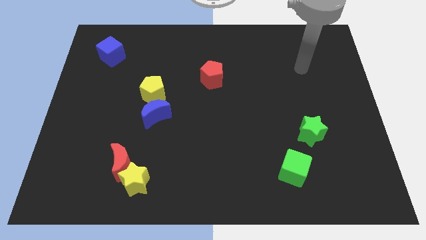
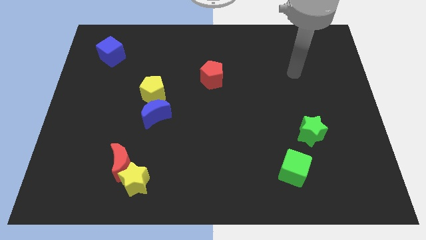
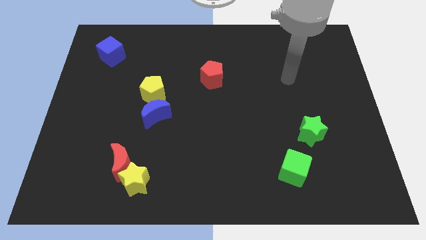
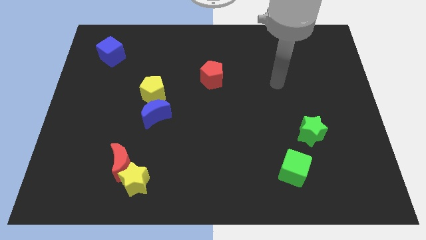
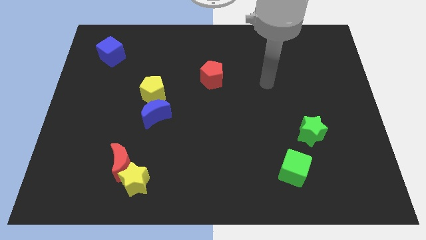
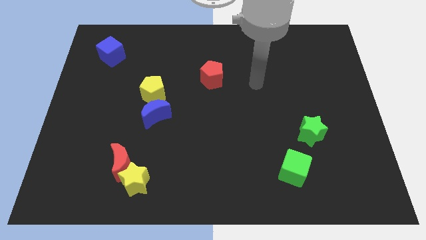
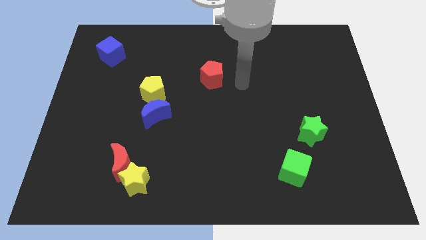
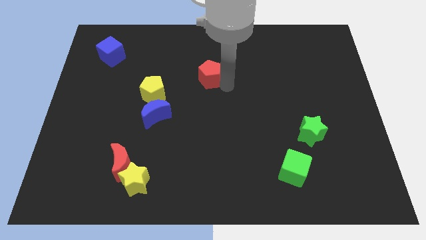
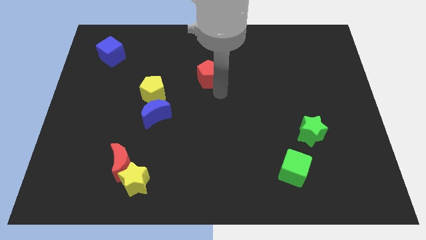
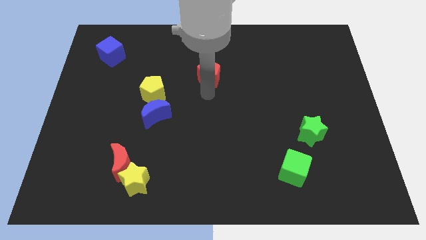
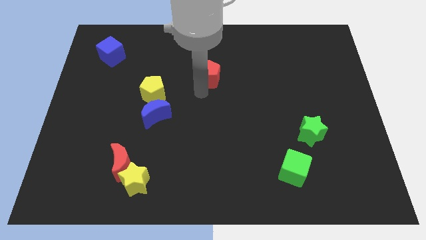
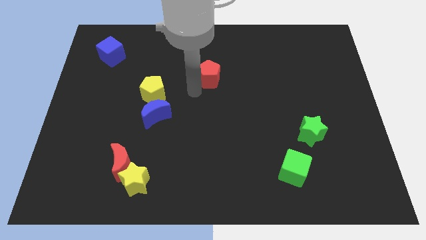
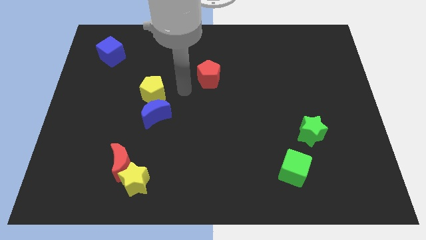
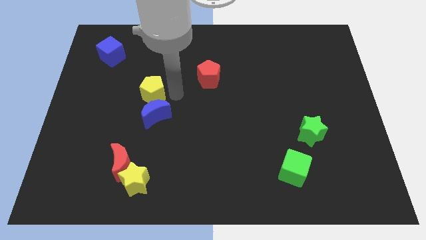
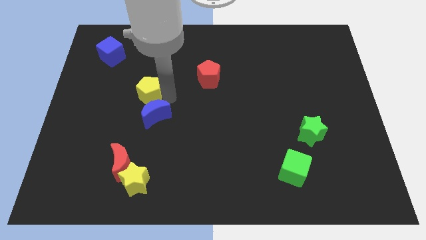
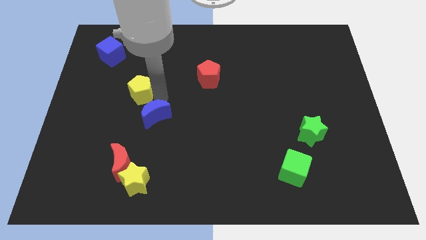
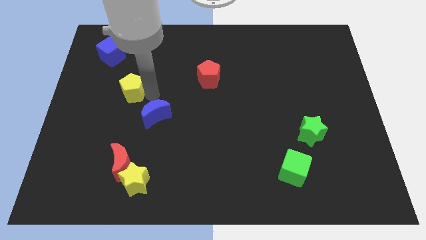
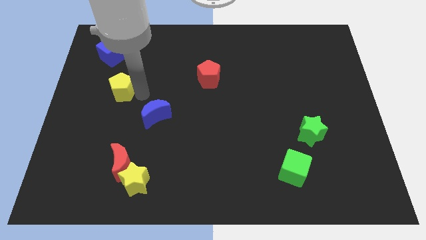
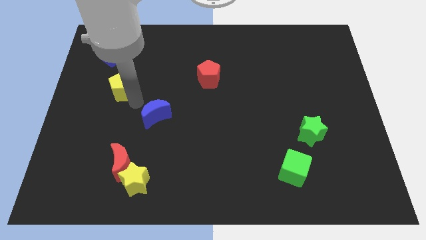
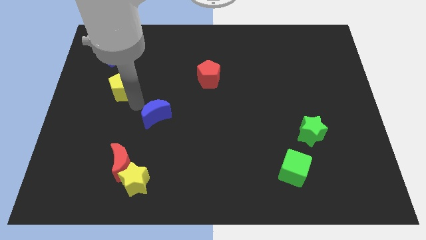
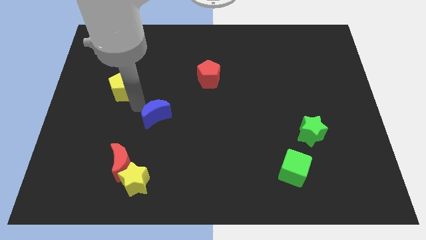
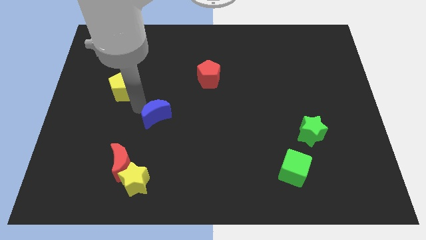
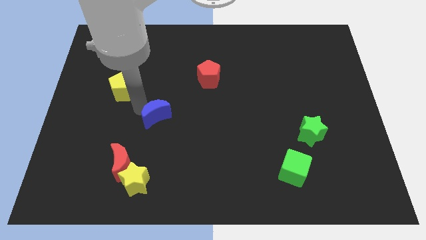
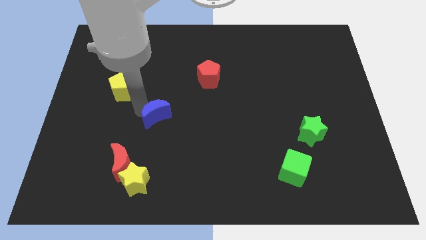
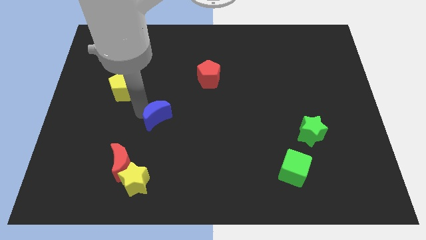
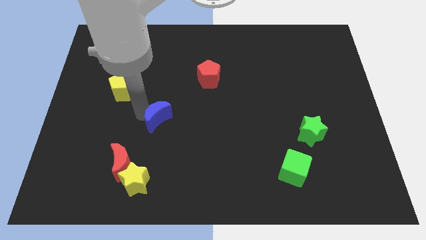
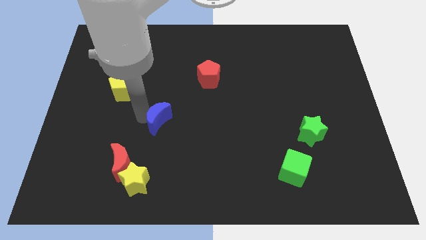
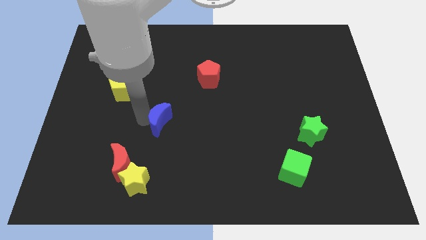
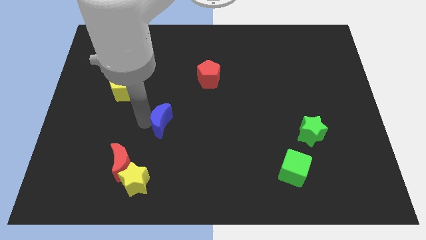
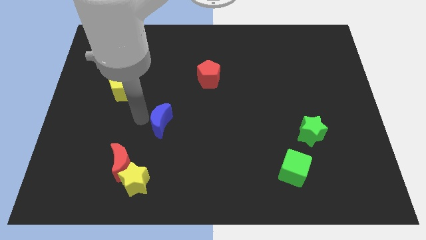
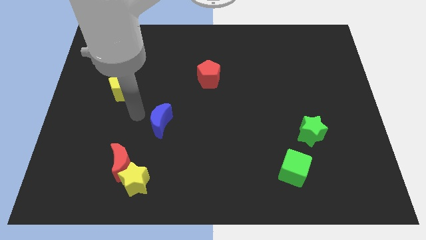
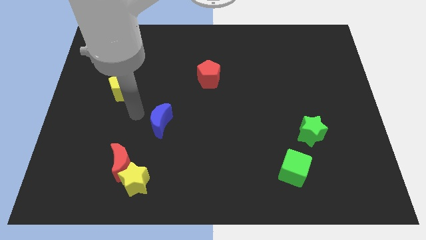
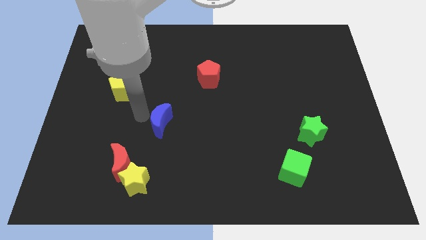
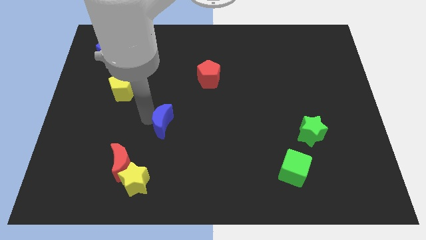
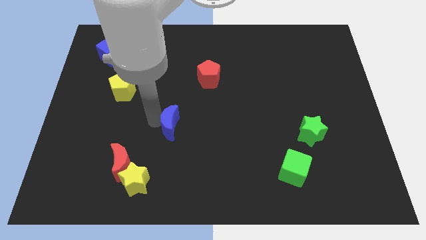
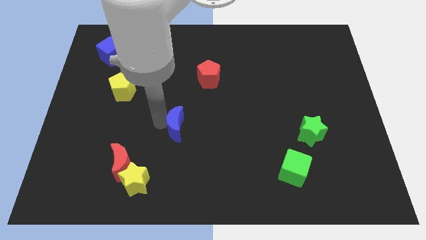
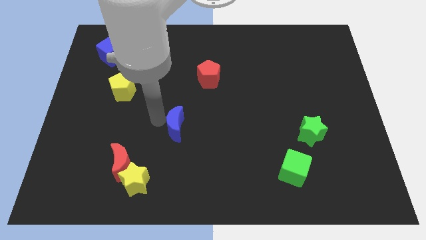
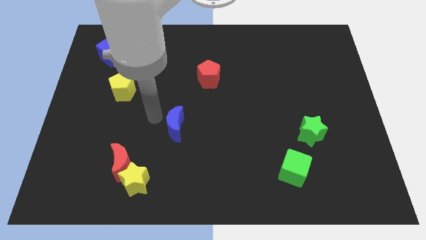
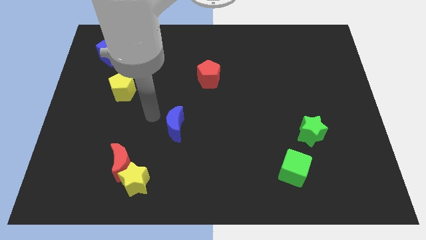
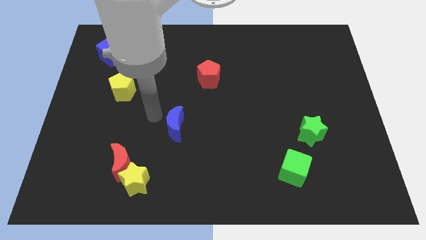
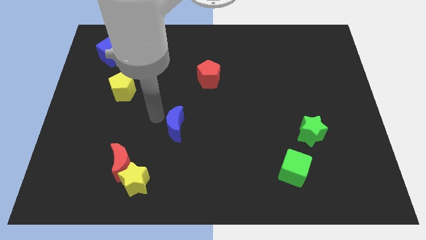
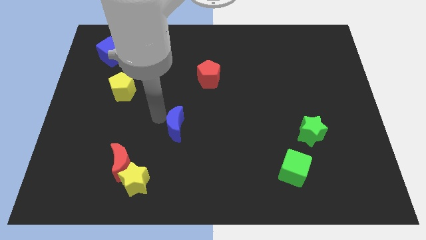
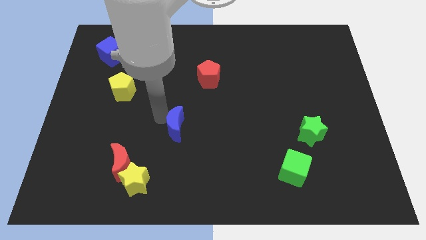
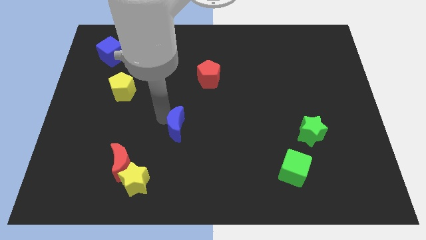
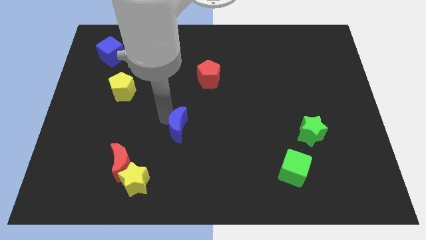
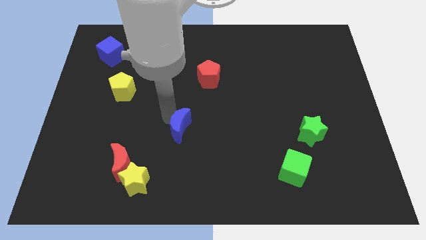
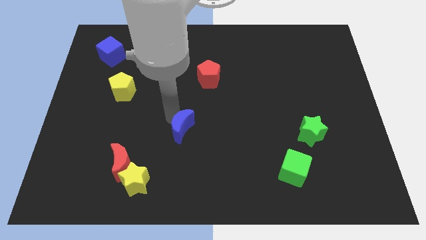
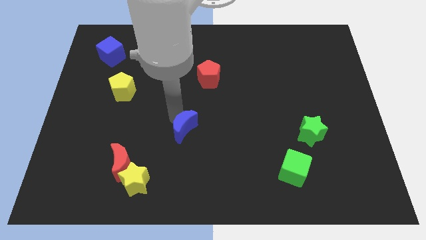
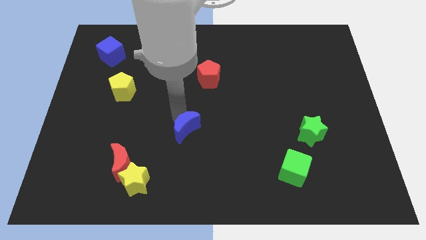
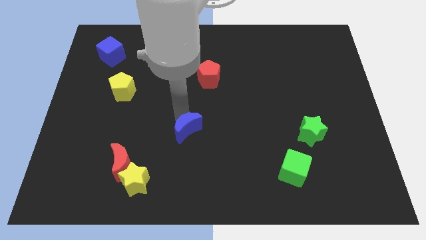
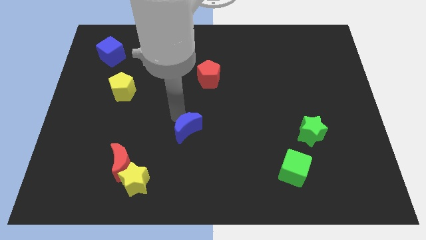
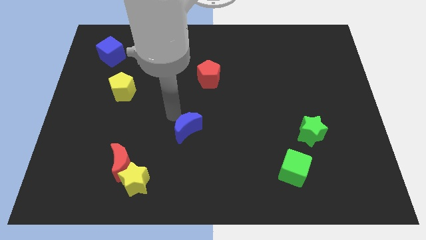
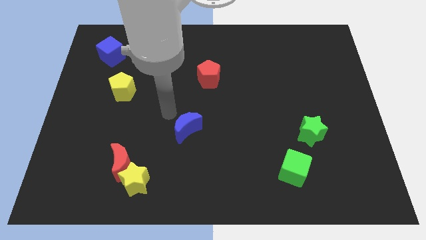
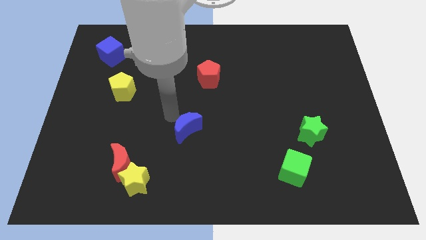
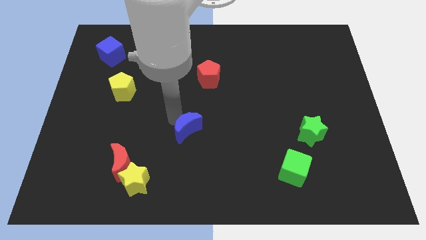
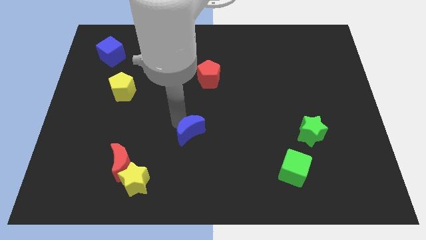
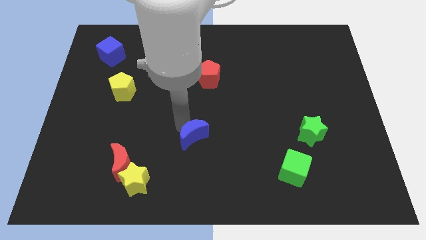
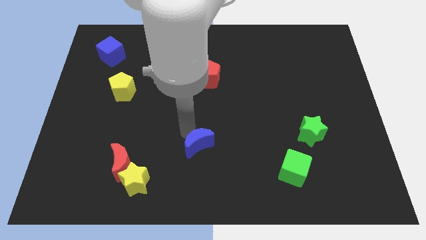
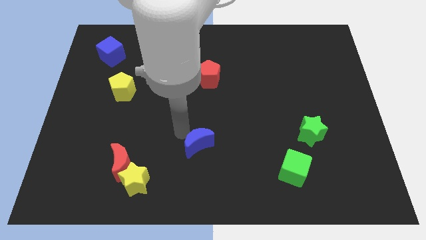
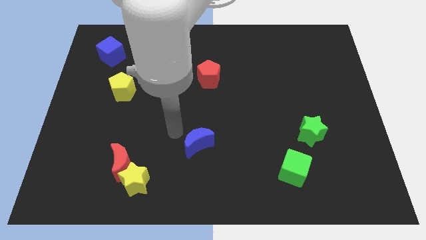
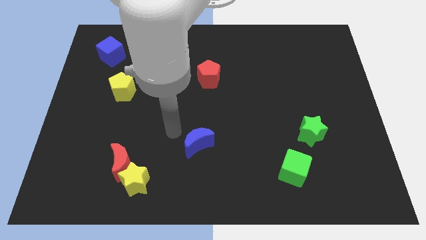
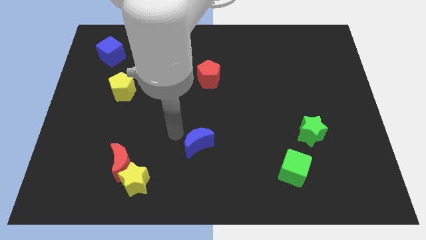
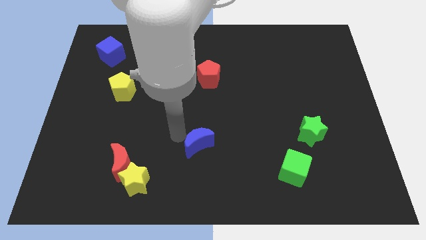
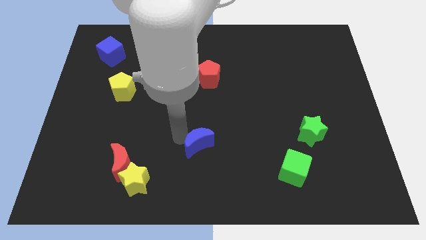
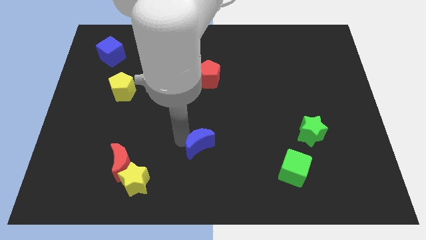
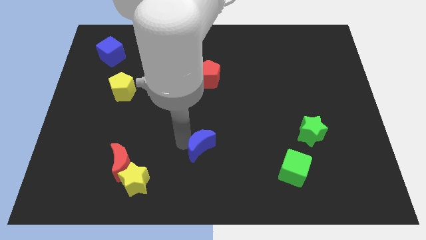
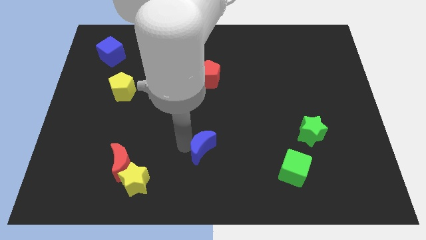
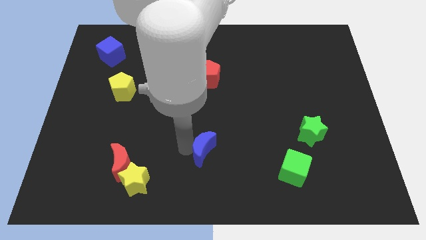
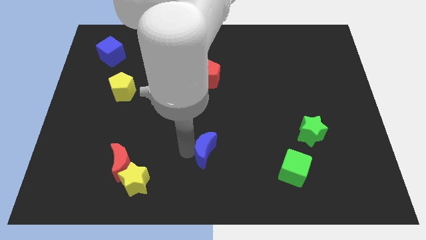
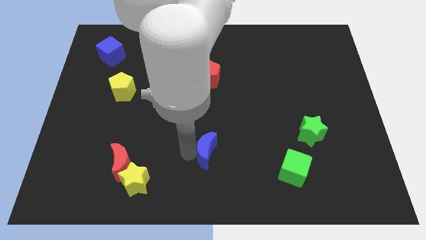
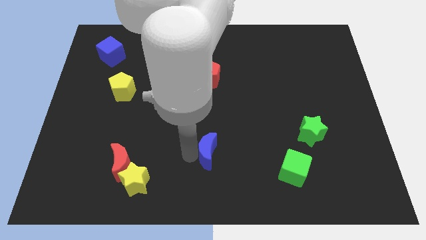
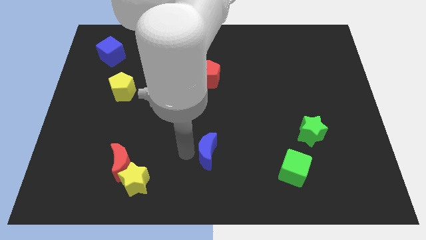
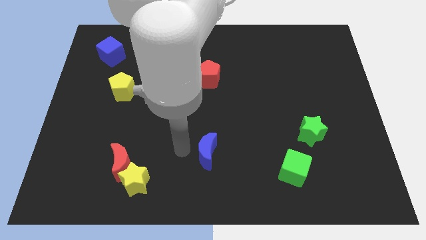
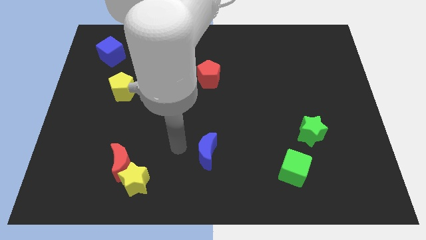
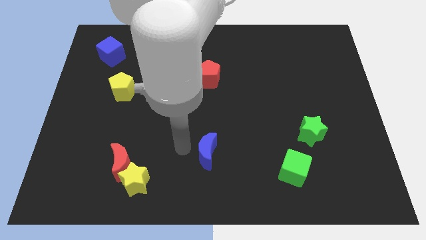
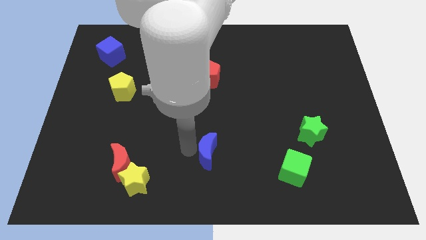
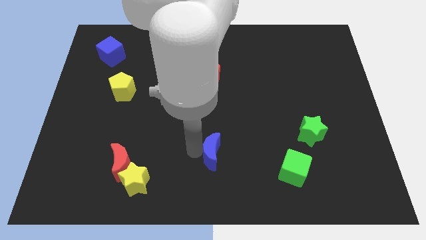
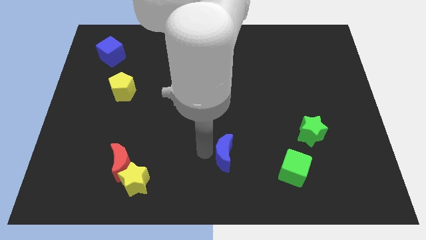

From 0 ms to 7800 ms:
push the blue moon to the left side of the green cube
